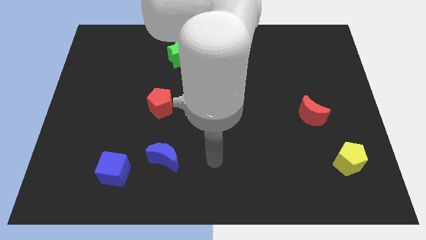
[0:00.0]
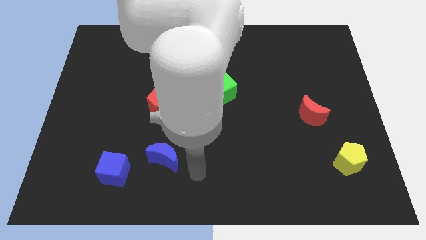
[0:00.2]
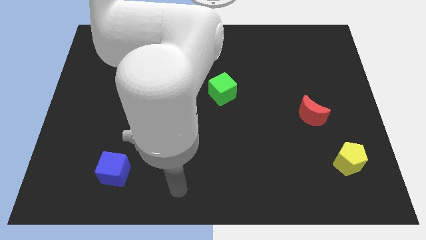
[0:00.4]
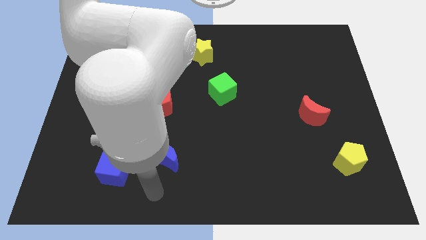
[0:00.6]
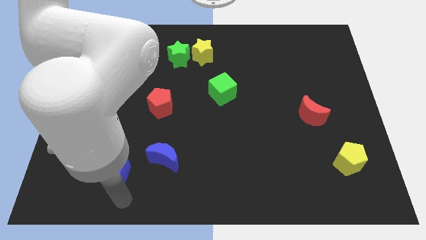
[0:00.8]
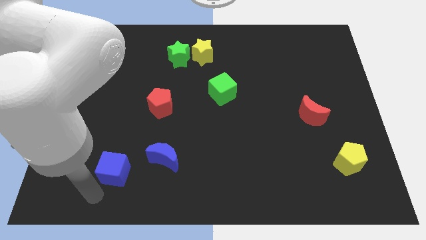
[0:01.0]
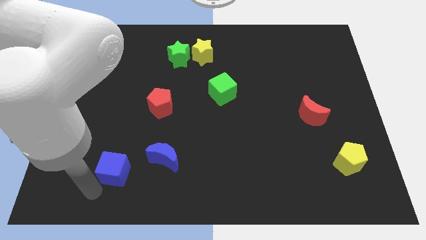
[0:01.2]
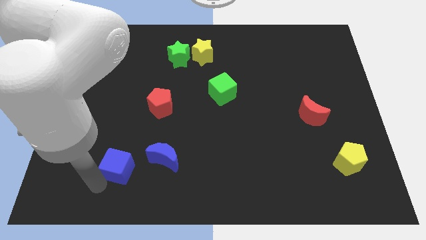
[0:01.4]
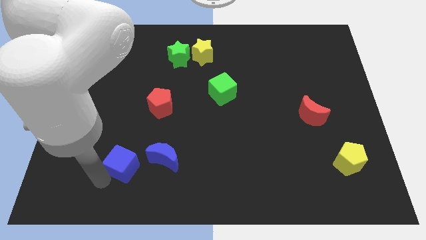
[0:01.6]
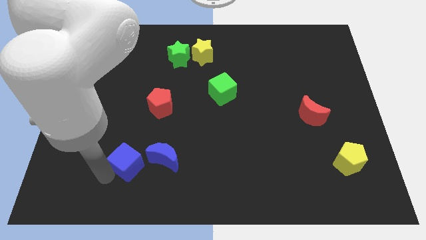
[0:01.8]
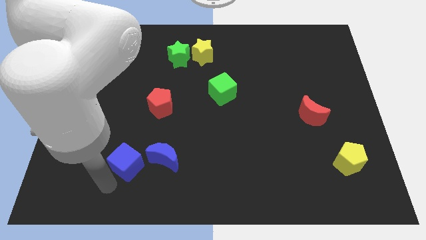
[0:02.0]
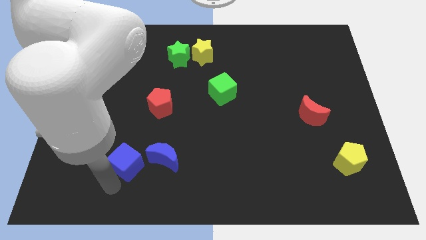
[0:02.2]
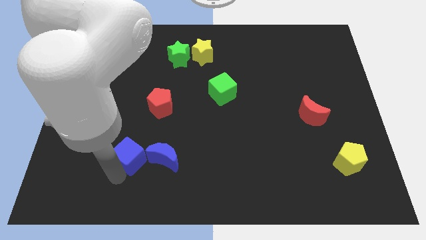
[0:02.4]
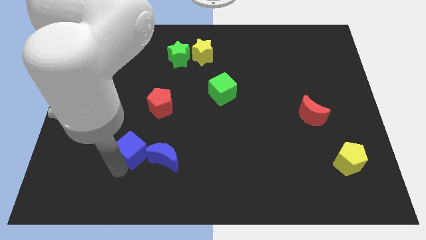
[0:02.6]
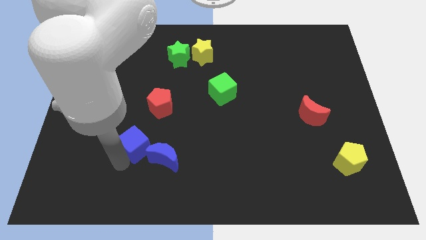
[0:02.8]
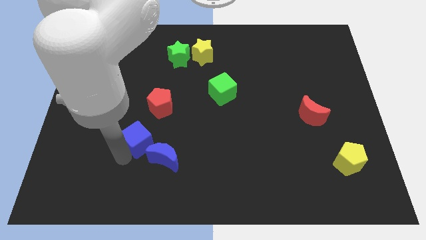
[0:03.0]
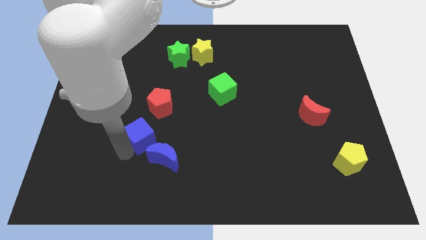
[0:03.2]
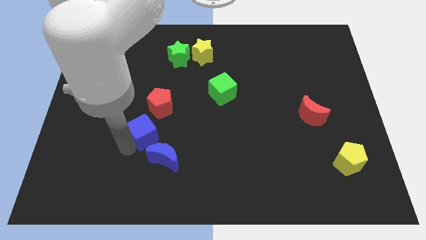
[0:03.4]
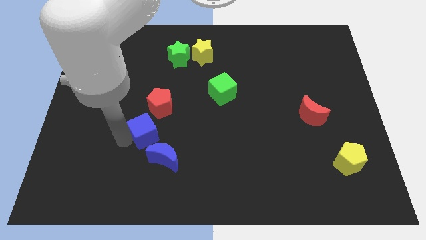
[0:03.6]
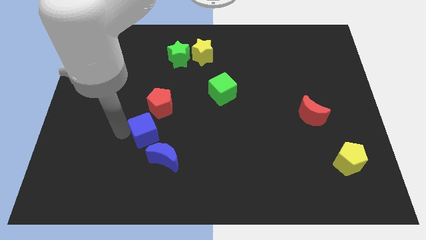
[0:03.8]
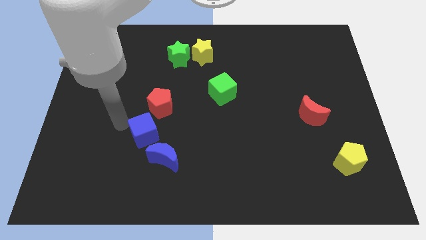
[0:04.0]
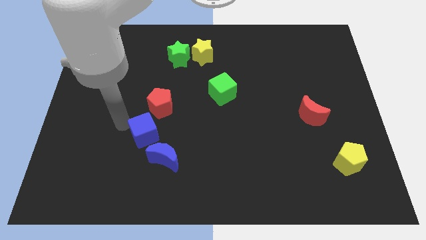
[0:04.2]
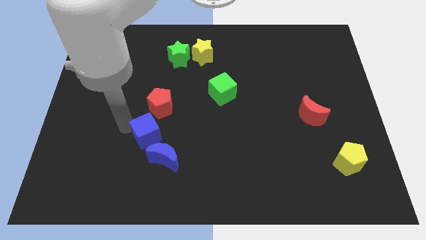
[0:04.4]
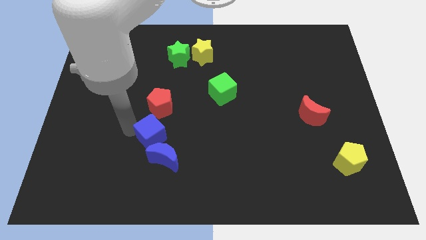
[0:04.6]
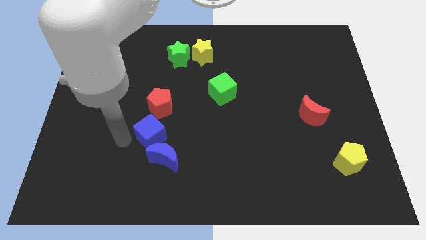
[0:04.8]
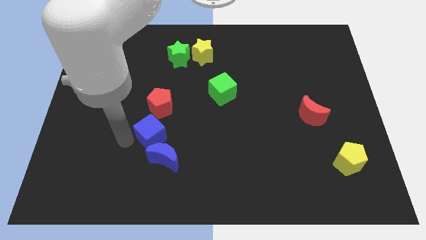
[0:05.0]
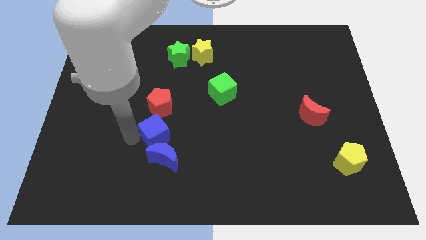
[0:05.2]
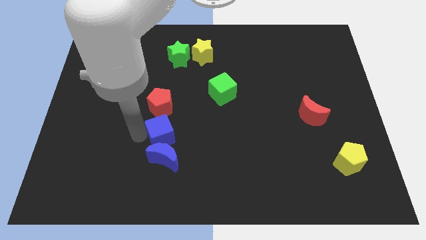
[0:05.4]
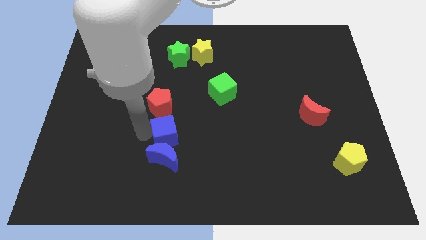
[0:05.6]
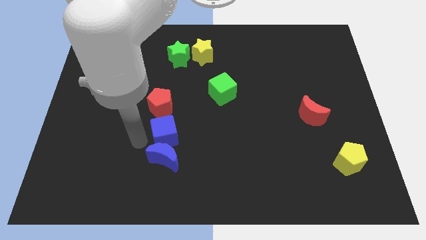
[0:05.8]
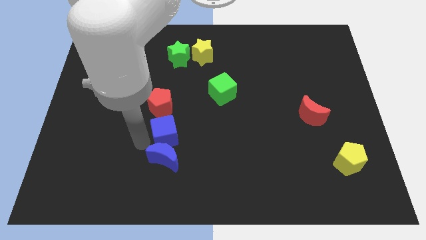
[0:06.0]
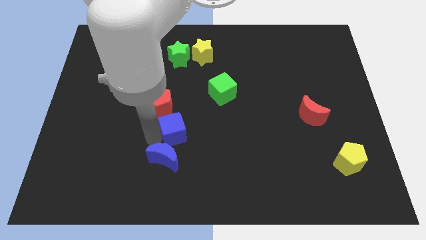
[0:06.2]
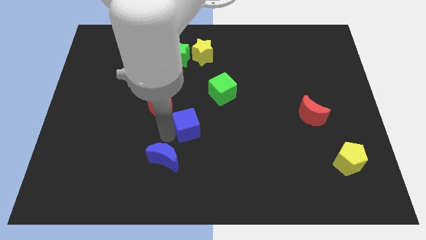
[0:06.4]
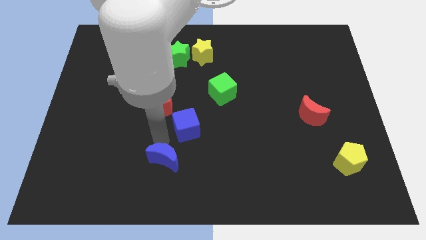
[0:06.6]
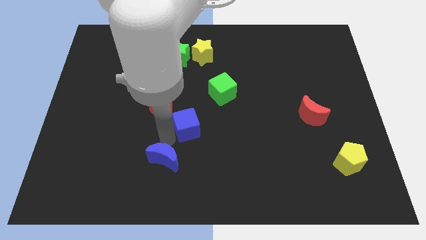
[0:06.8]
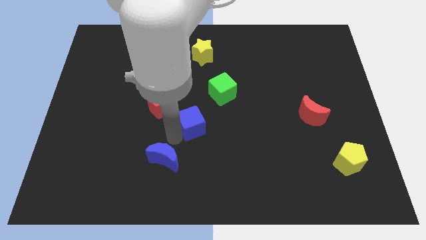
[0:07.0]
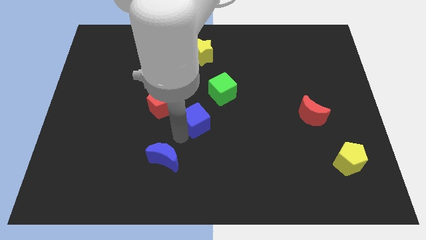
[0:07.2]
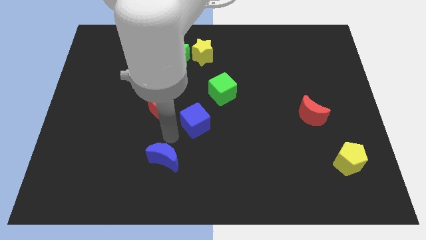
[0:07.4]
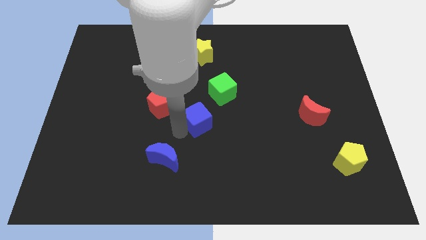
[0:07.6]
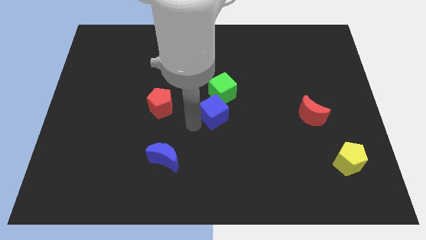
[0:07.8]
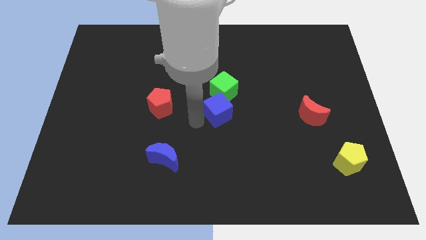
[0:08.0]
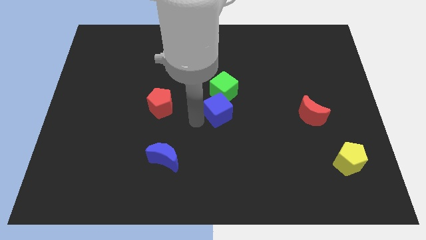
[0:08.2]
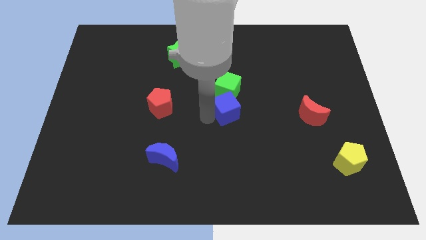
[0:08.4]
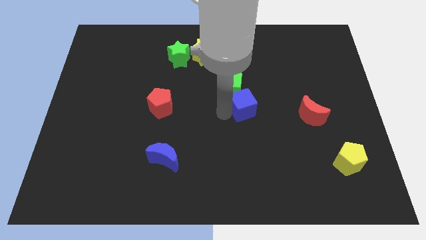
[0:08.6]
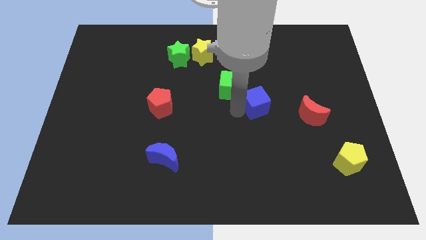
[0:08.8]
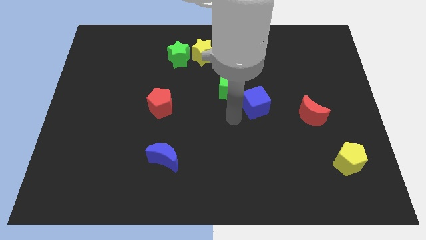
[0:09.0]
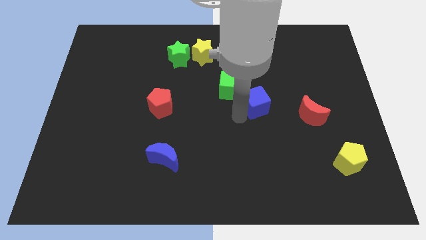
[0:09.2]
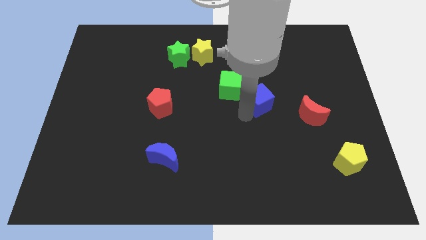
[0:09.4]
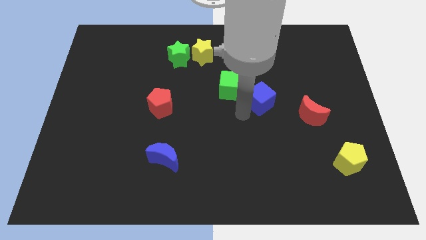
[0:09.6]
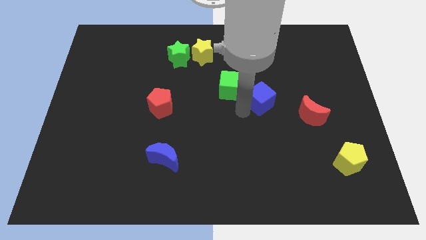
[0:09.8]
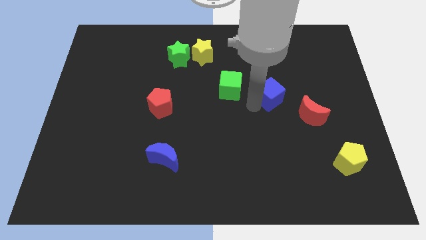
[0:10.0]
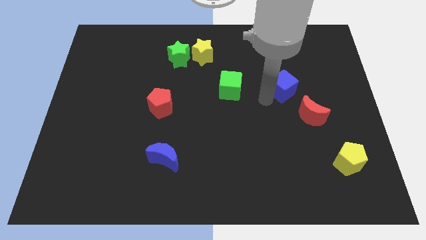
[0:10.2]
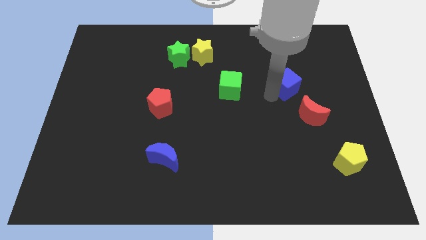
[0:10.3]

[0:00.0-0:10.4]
slide the blue cube above the red moon

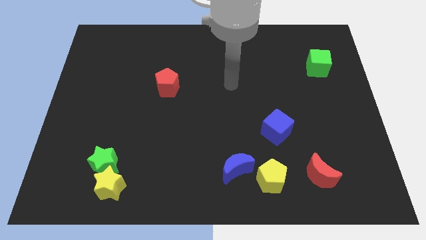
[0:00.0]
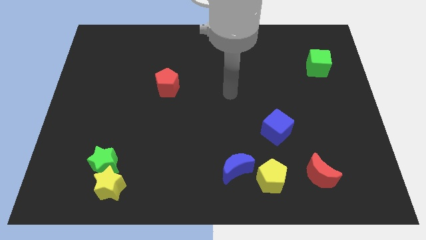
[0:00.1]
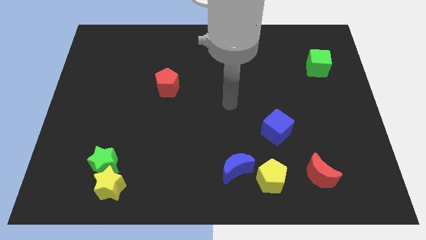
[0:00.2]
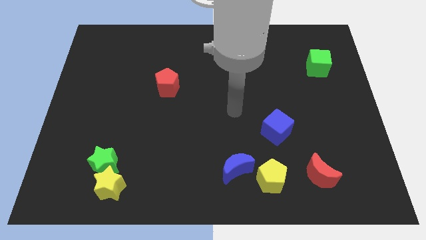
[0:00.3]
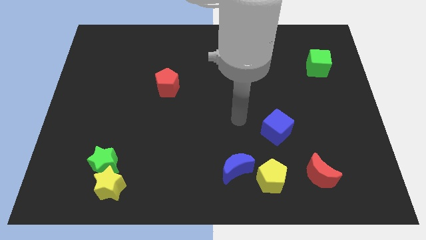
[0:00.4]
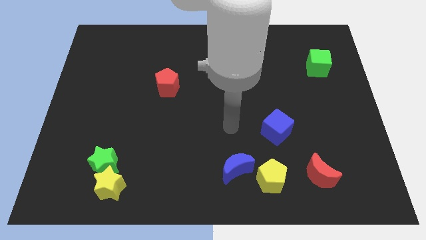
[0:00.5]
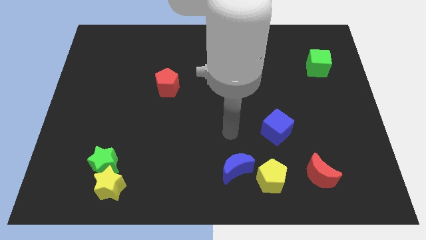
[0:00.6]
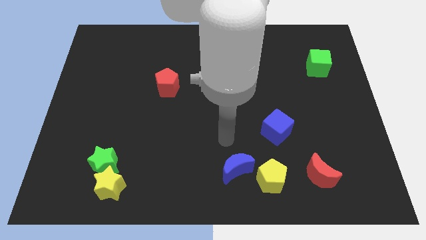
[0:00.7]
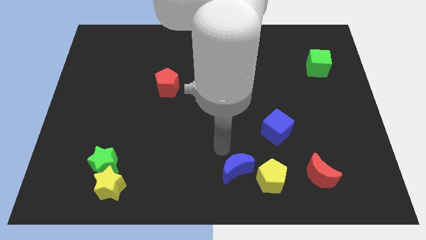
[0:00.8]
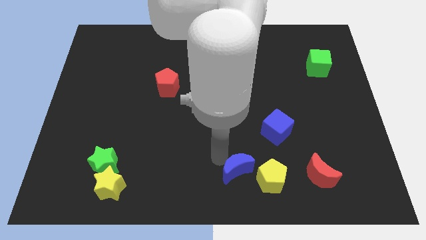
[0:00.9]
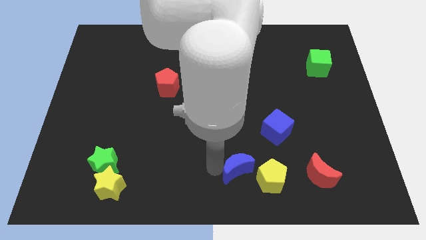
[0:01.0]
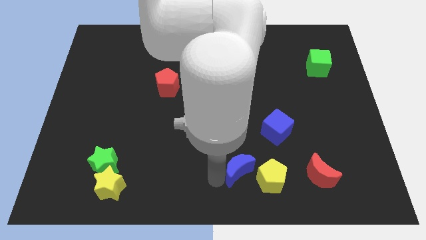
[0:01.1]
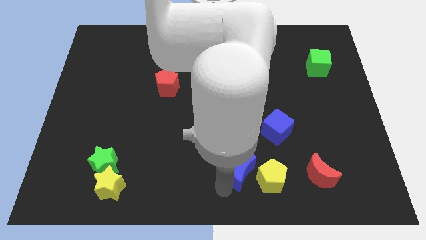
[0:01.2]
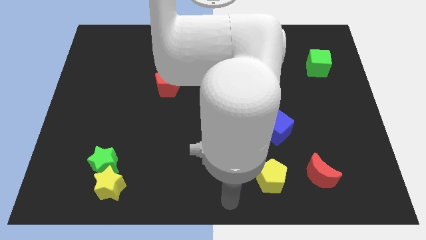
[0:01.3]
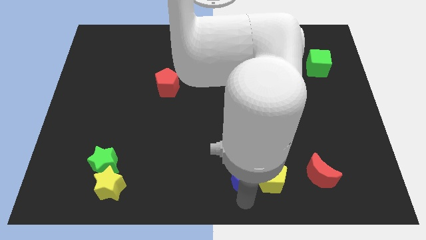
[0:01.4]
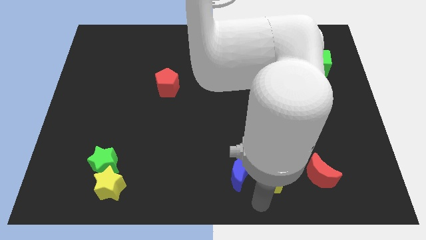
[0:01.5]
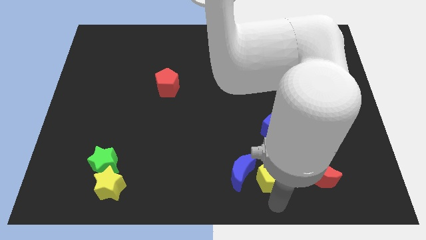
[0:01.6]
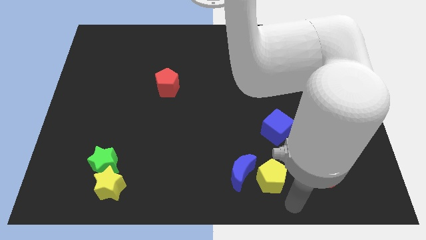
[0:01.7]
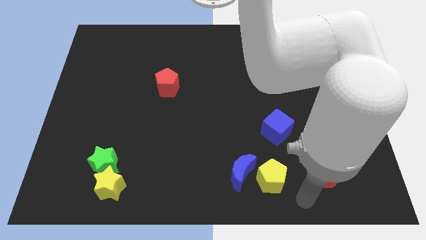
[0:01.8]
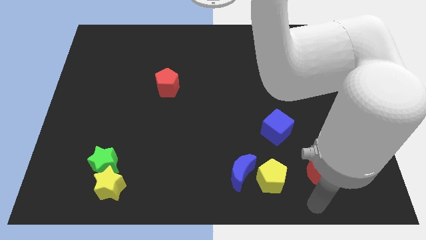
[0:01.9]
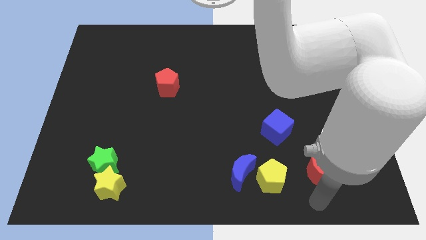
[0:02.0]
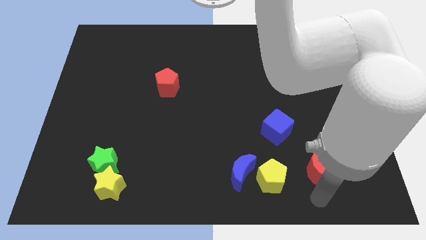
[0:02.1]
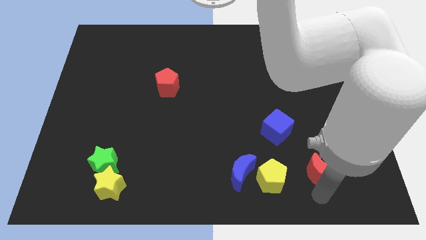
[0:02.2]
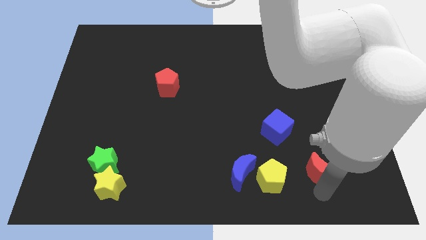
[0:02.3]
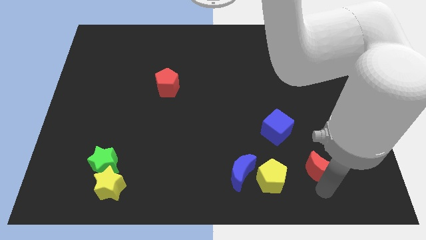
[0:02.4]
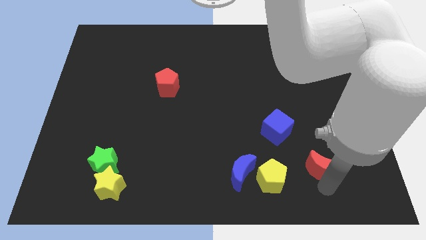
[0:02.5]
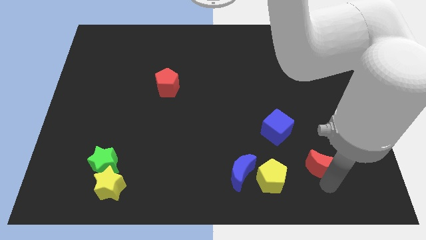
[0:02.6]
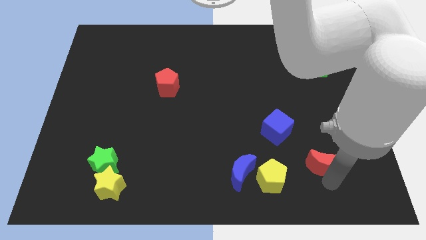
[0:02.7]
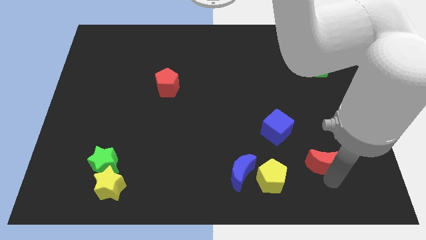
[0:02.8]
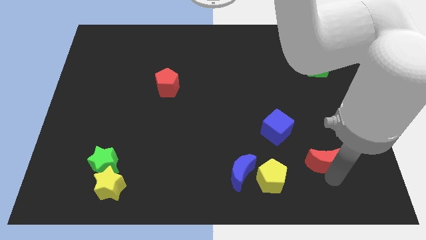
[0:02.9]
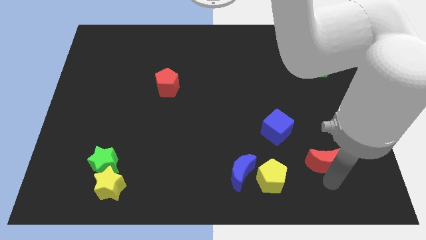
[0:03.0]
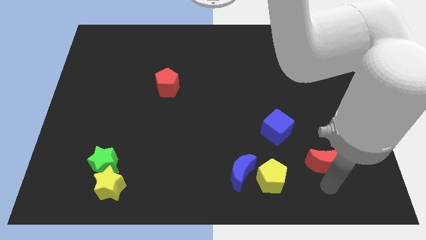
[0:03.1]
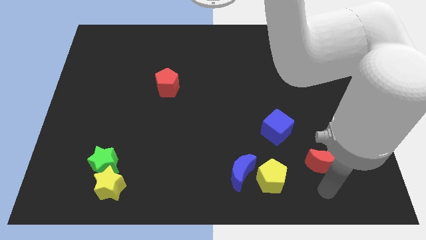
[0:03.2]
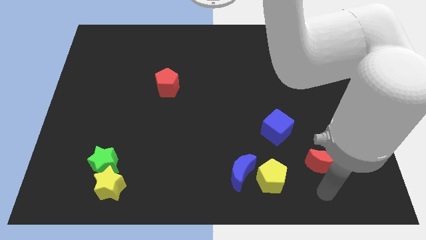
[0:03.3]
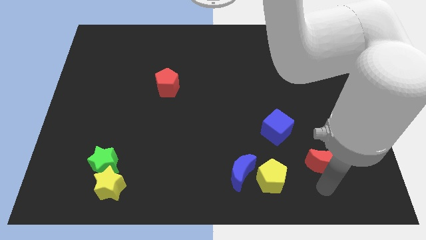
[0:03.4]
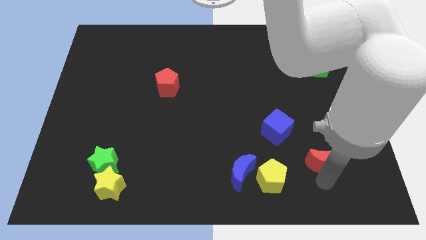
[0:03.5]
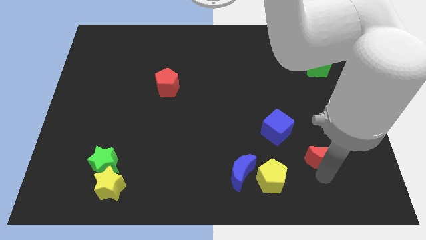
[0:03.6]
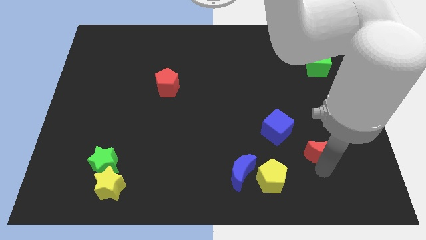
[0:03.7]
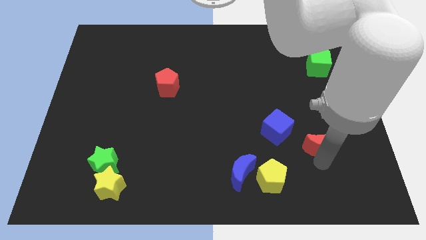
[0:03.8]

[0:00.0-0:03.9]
move the red moon to the right side of the blue cube
